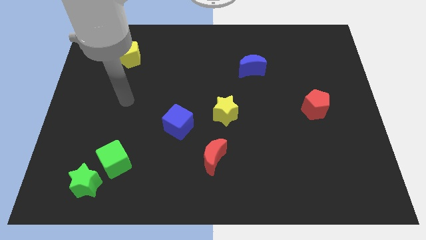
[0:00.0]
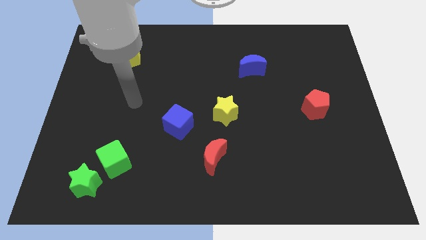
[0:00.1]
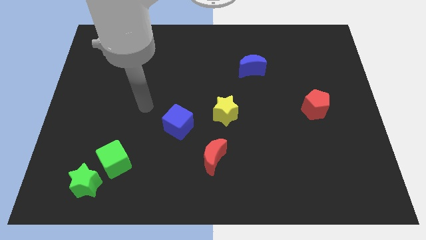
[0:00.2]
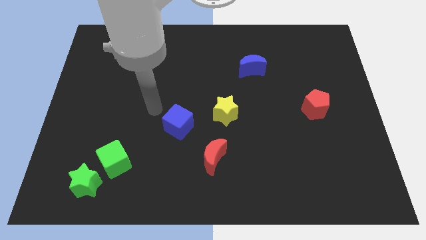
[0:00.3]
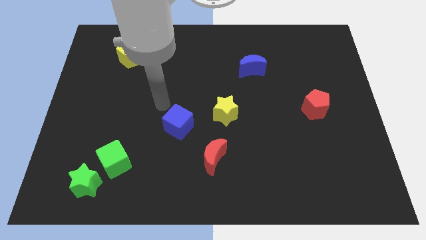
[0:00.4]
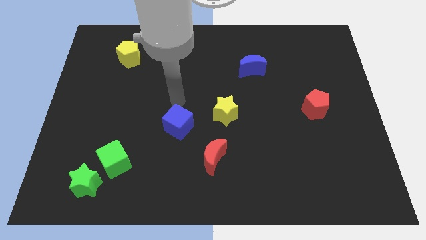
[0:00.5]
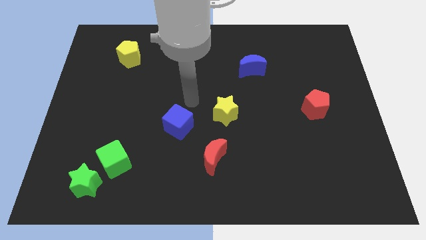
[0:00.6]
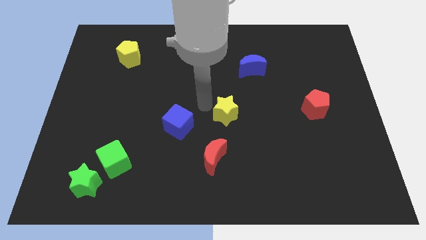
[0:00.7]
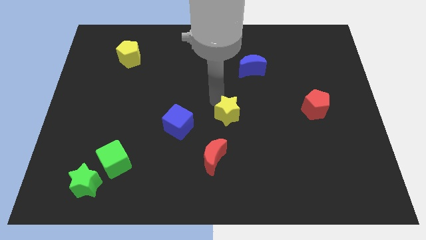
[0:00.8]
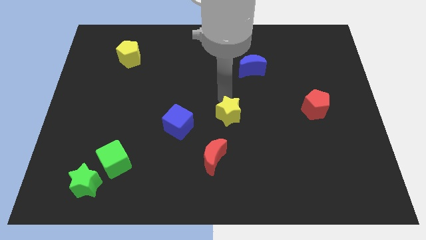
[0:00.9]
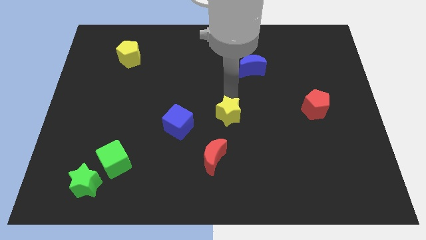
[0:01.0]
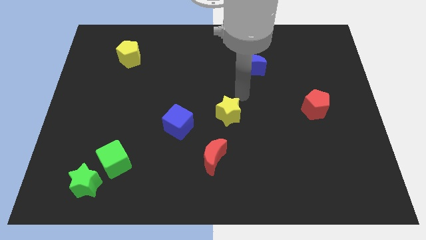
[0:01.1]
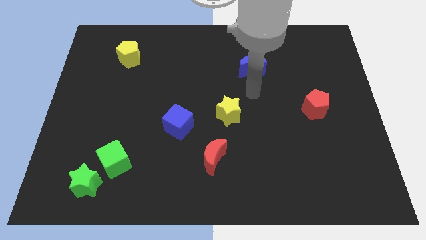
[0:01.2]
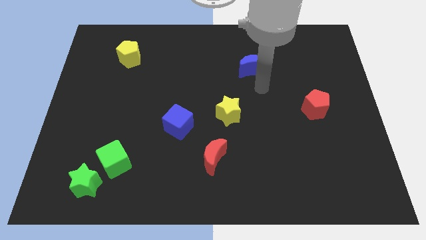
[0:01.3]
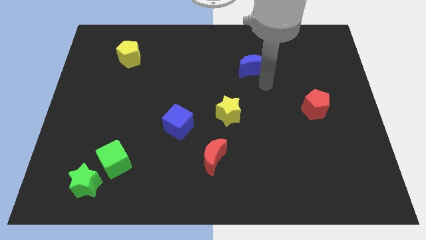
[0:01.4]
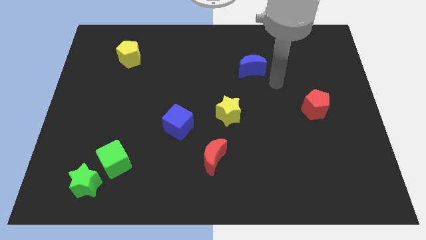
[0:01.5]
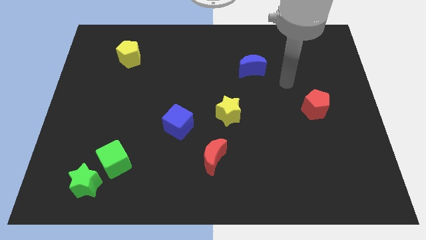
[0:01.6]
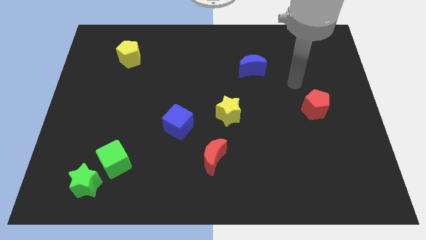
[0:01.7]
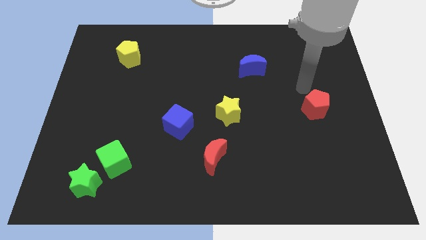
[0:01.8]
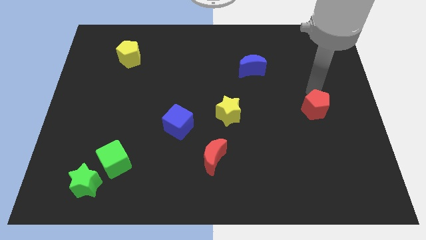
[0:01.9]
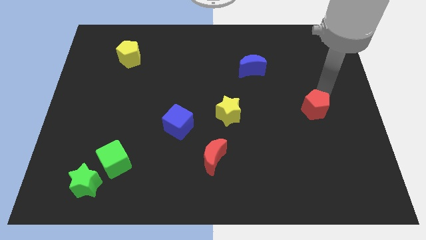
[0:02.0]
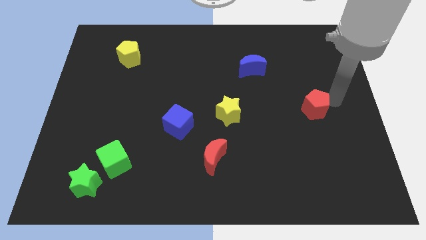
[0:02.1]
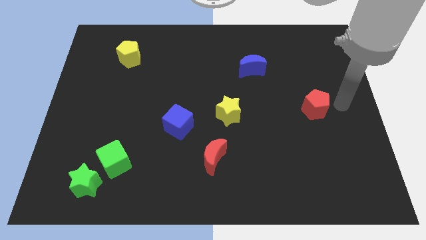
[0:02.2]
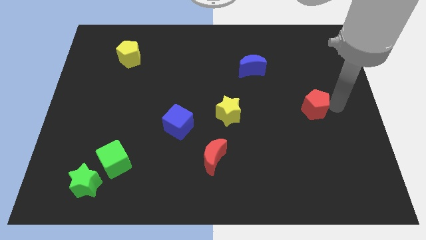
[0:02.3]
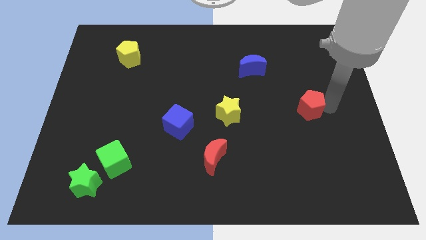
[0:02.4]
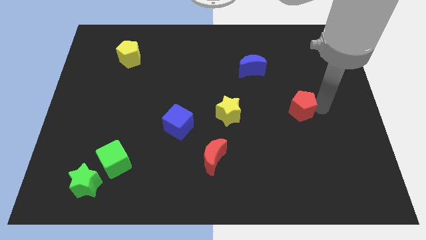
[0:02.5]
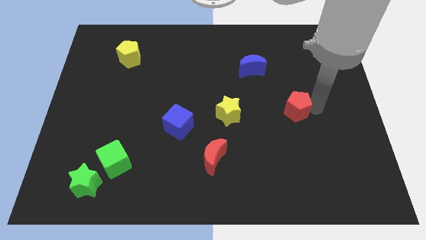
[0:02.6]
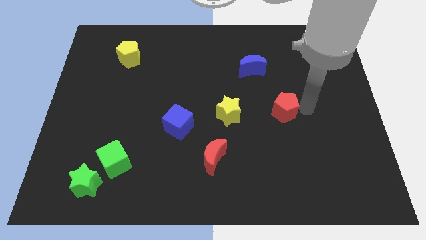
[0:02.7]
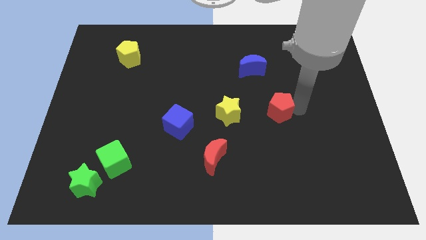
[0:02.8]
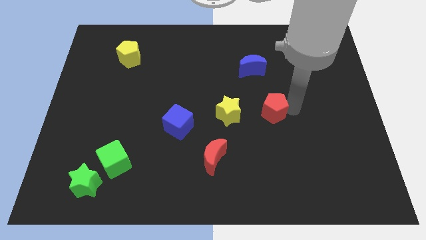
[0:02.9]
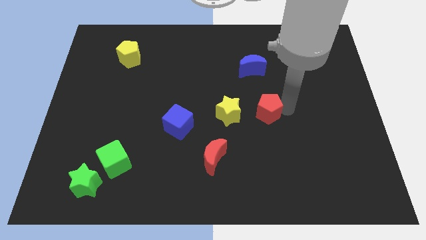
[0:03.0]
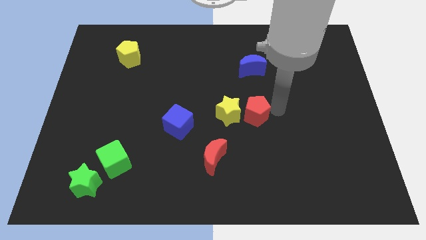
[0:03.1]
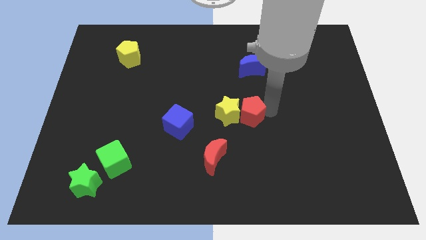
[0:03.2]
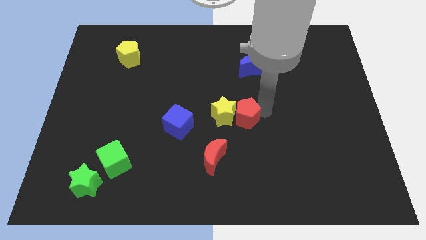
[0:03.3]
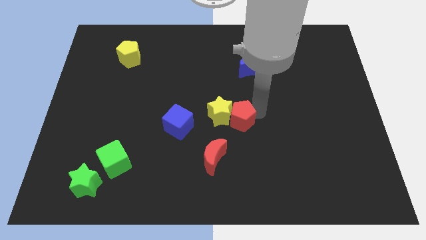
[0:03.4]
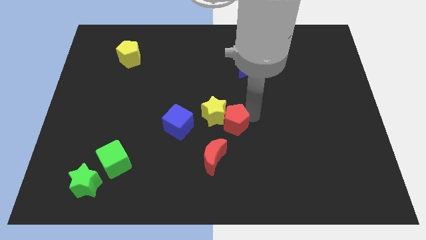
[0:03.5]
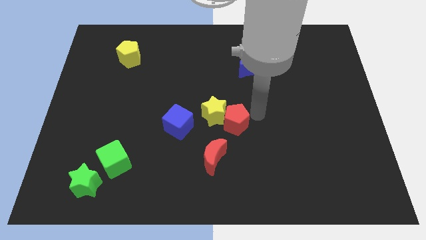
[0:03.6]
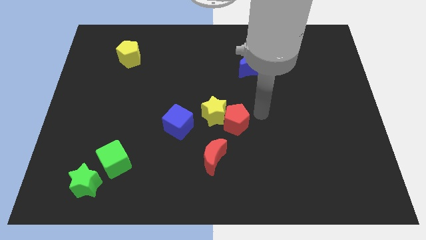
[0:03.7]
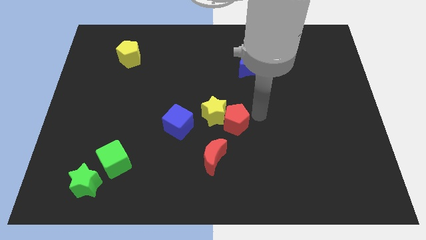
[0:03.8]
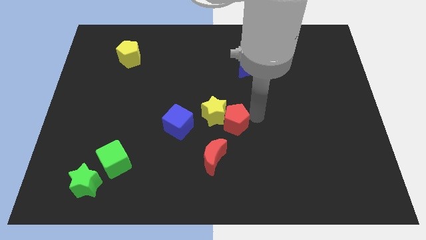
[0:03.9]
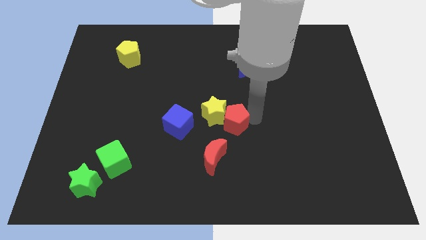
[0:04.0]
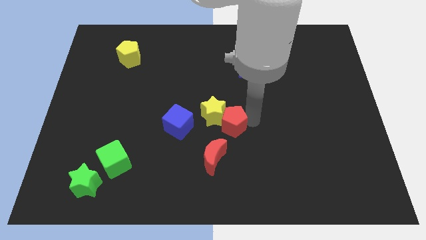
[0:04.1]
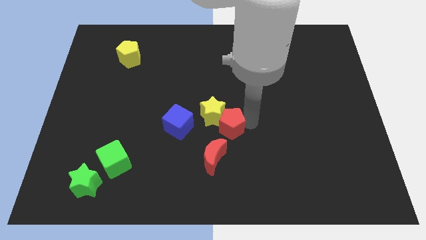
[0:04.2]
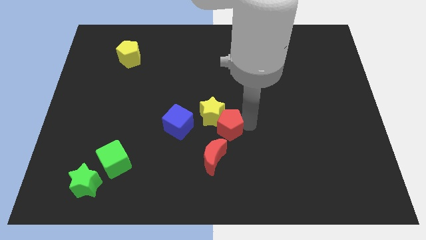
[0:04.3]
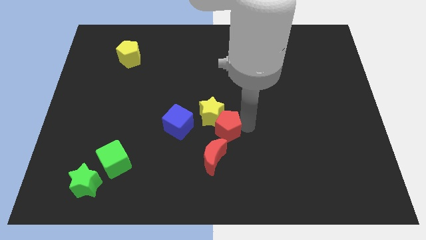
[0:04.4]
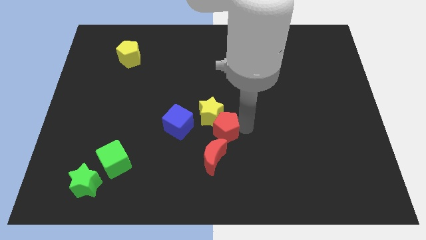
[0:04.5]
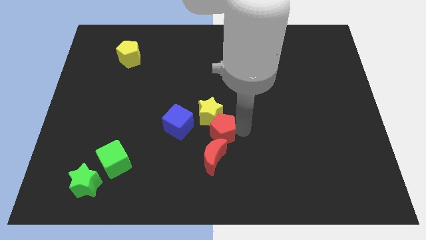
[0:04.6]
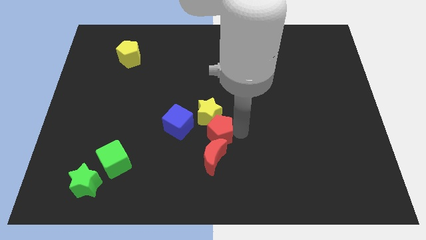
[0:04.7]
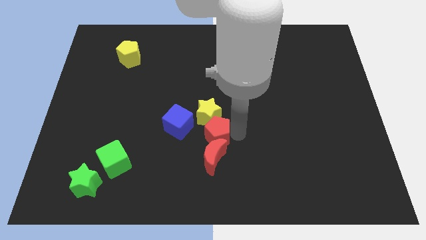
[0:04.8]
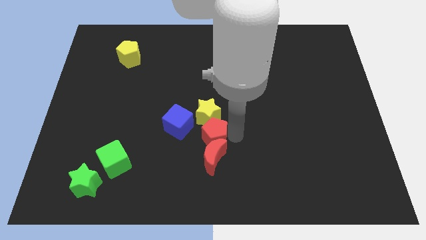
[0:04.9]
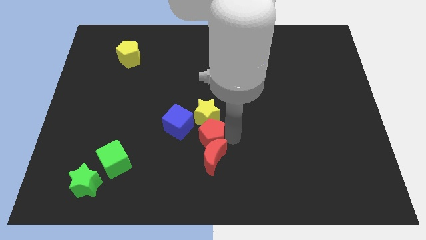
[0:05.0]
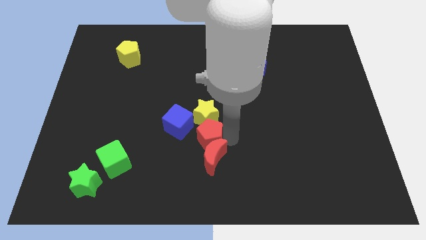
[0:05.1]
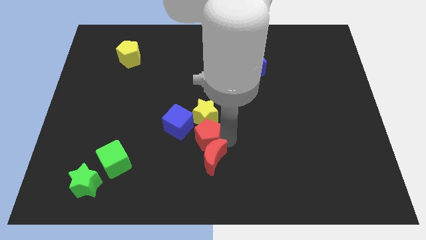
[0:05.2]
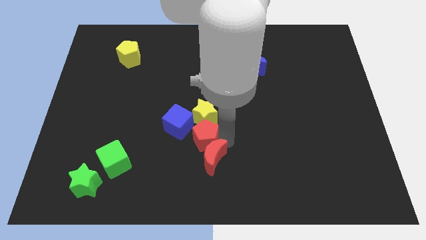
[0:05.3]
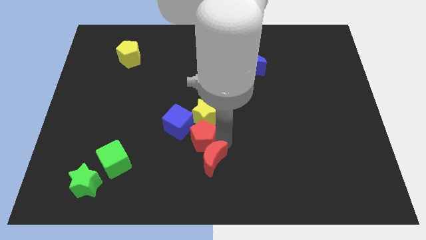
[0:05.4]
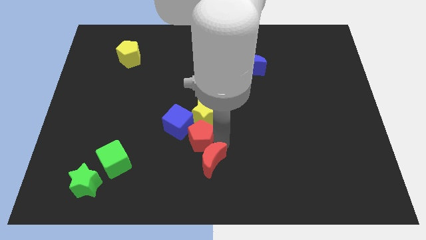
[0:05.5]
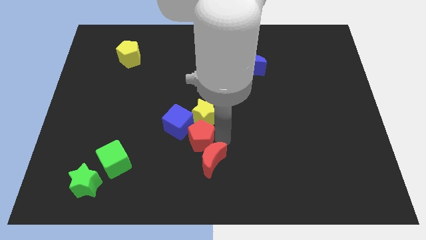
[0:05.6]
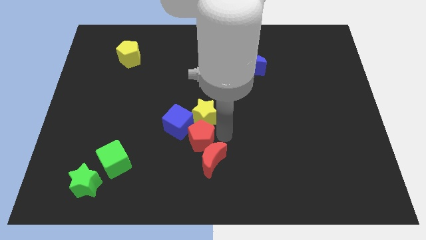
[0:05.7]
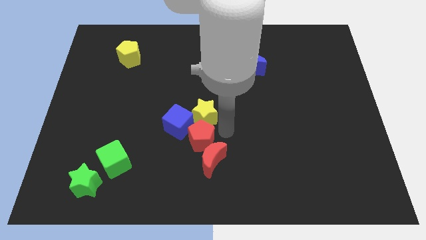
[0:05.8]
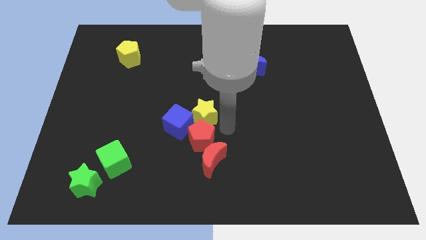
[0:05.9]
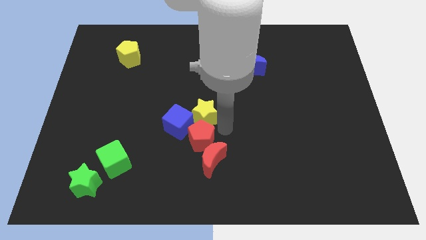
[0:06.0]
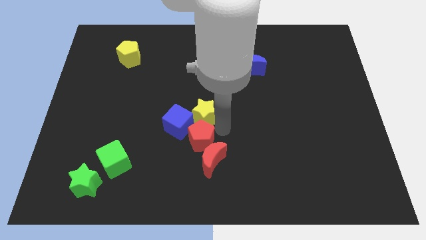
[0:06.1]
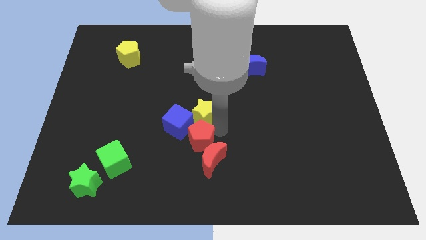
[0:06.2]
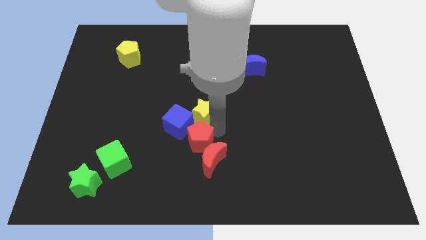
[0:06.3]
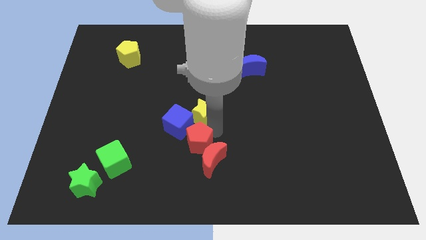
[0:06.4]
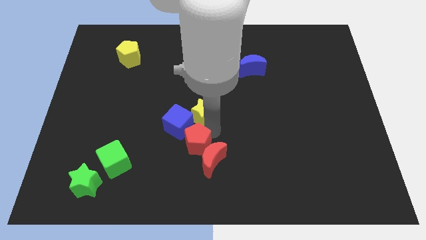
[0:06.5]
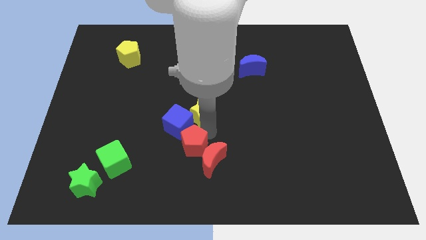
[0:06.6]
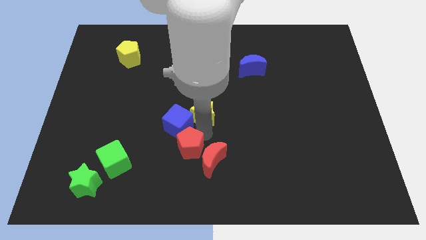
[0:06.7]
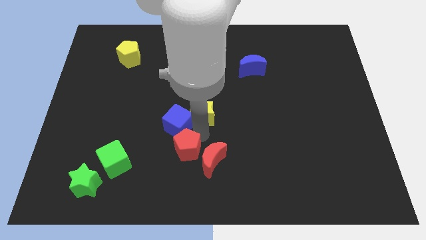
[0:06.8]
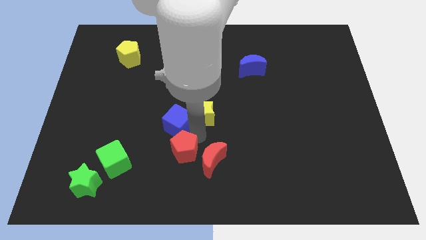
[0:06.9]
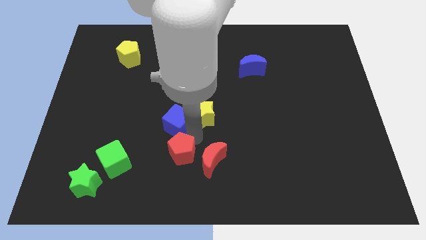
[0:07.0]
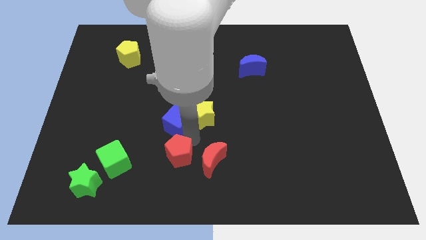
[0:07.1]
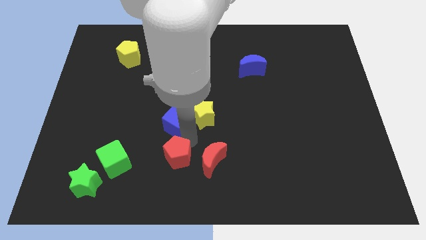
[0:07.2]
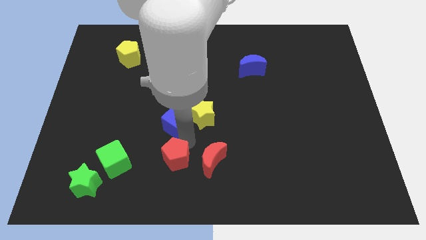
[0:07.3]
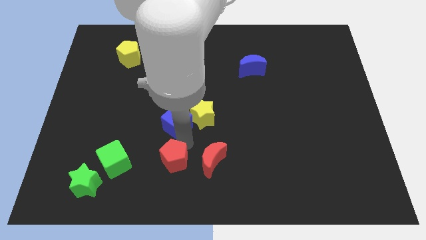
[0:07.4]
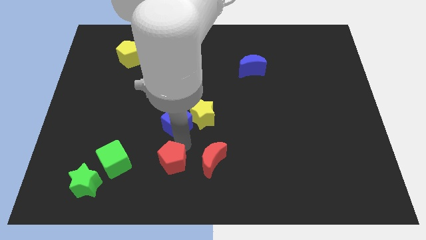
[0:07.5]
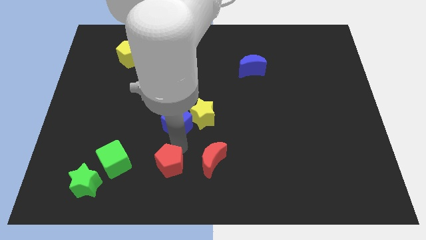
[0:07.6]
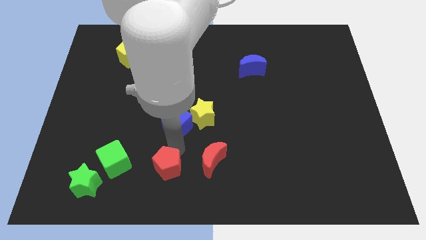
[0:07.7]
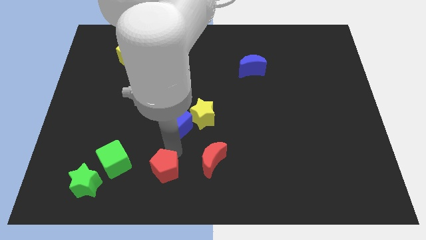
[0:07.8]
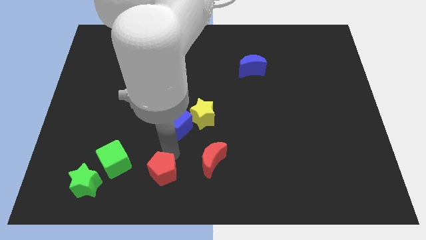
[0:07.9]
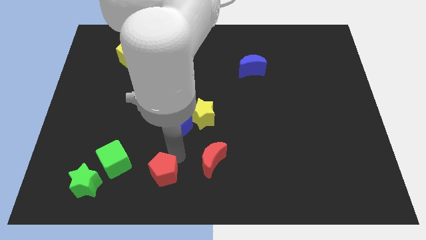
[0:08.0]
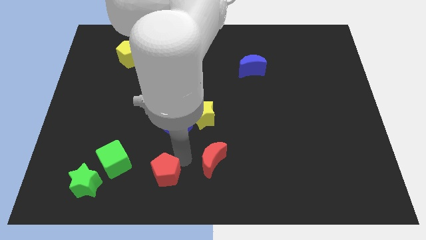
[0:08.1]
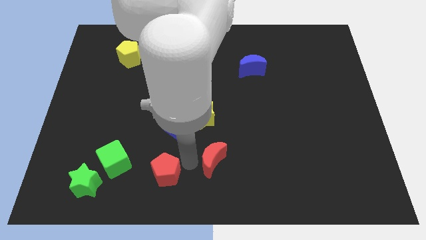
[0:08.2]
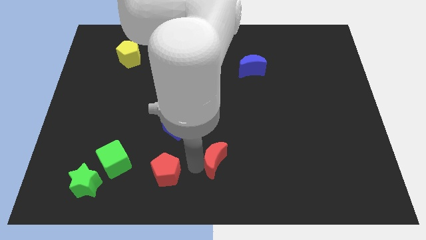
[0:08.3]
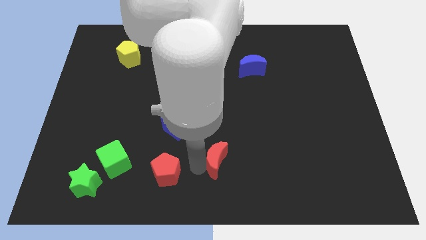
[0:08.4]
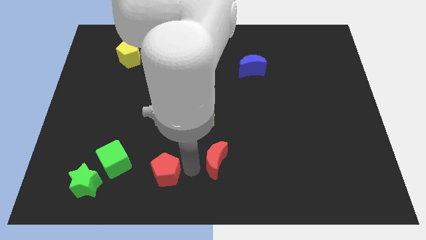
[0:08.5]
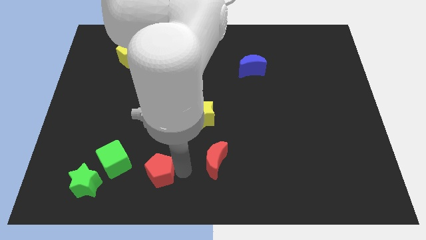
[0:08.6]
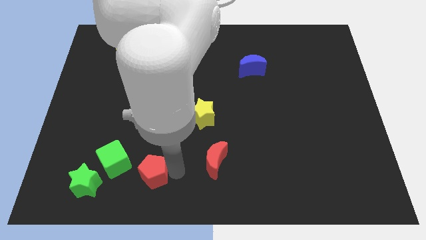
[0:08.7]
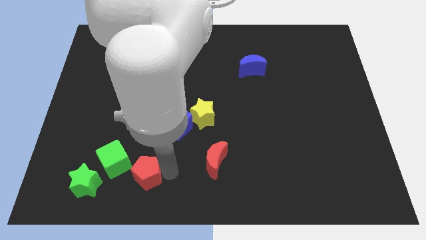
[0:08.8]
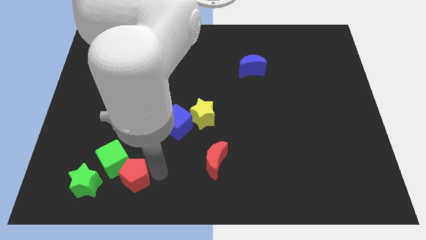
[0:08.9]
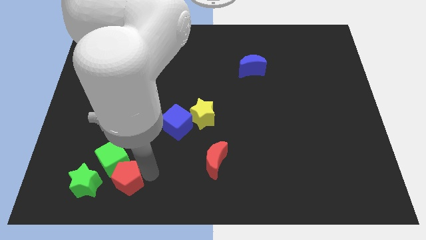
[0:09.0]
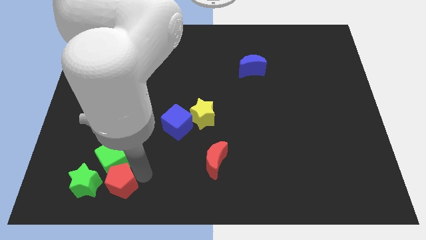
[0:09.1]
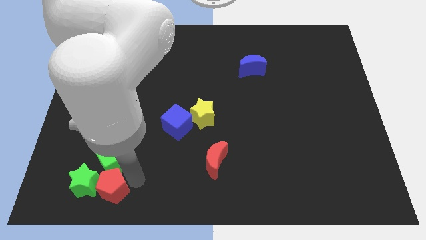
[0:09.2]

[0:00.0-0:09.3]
move the red pentagon next to the green star
